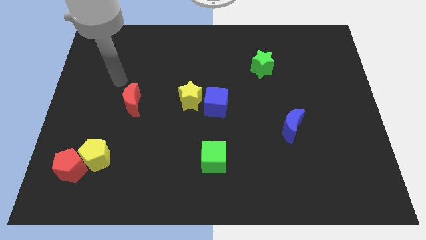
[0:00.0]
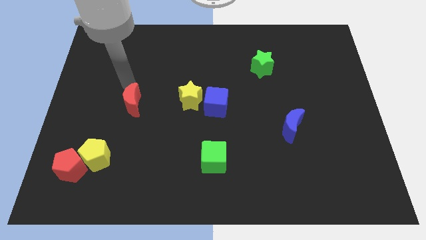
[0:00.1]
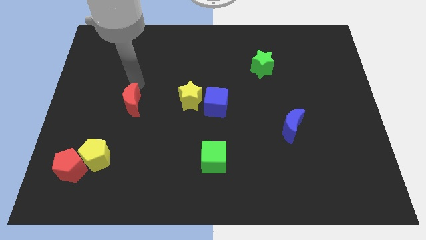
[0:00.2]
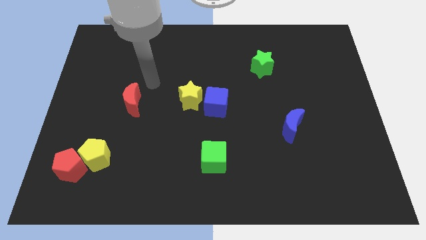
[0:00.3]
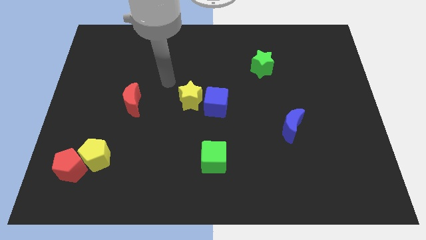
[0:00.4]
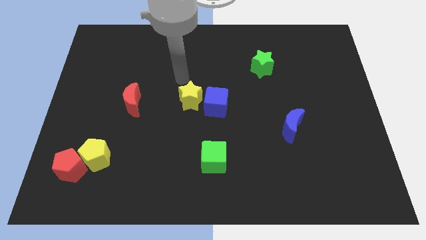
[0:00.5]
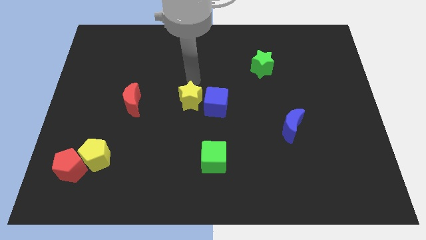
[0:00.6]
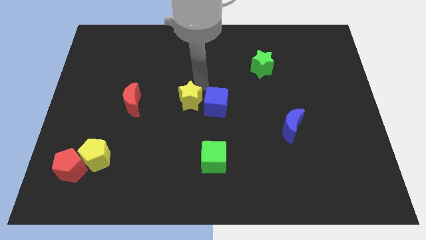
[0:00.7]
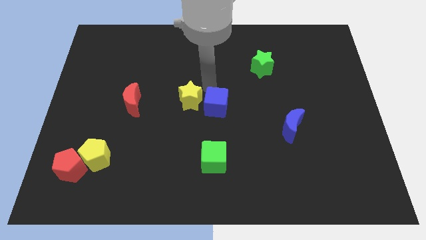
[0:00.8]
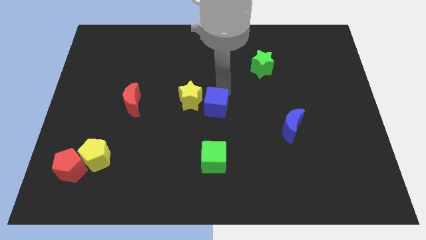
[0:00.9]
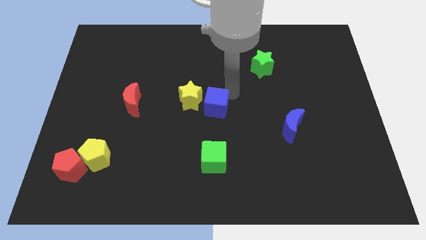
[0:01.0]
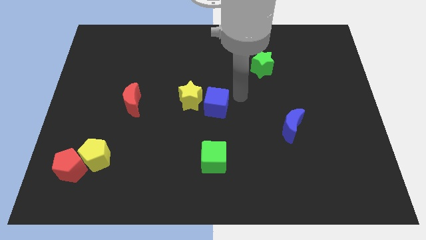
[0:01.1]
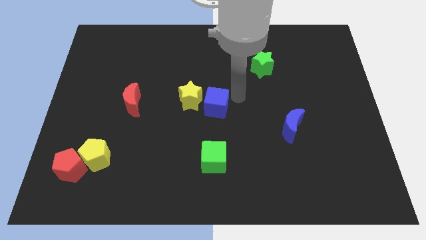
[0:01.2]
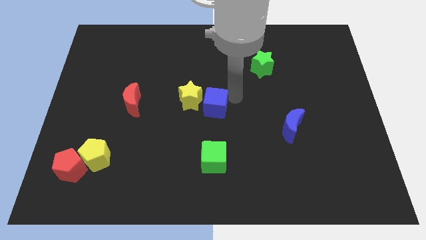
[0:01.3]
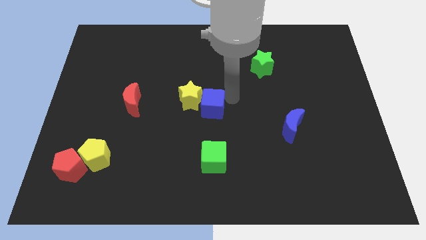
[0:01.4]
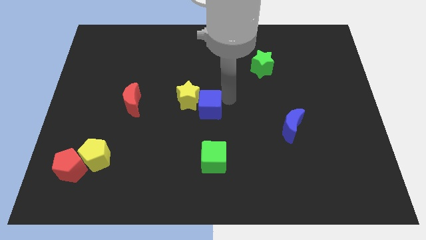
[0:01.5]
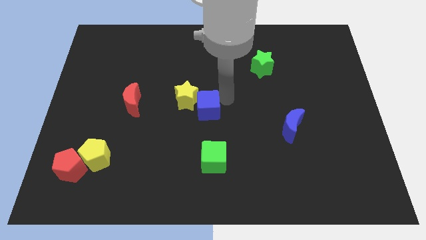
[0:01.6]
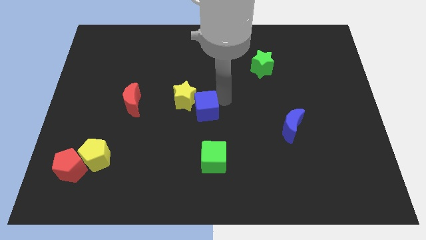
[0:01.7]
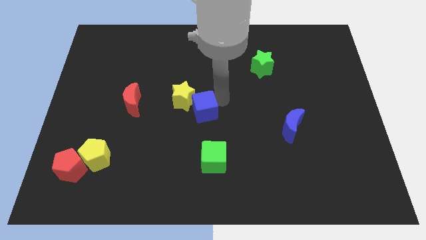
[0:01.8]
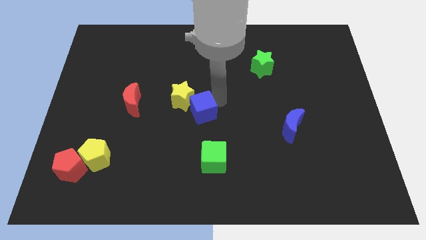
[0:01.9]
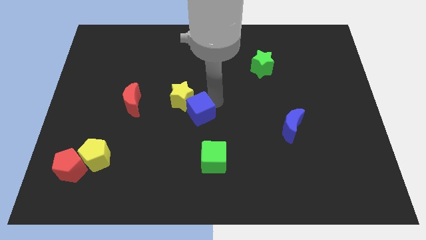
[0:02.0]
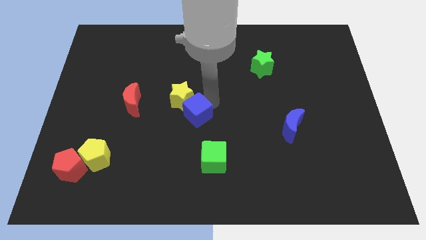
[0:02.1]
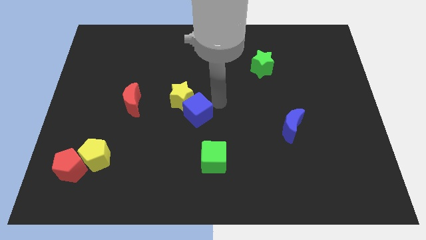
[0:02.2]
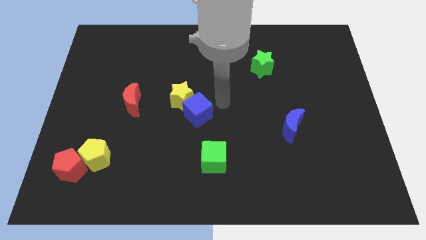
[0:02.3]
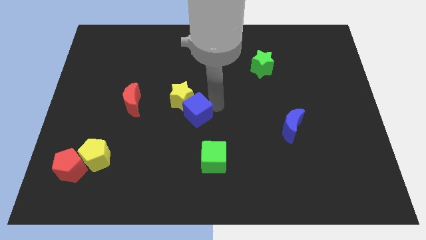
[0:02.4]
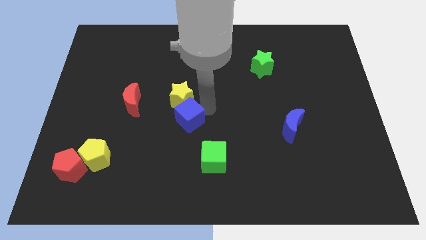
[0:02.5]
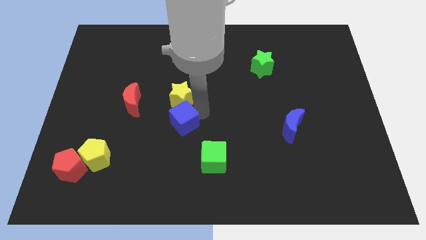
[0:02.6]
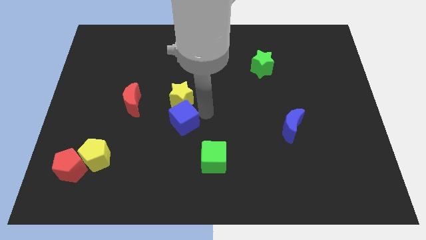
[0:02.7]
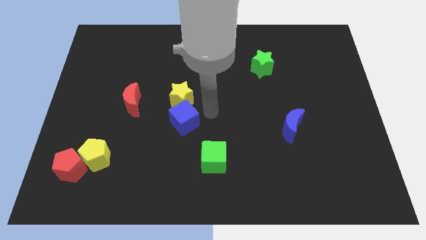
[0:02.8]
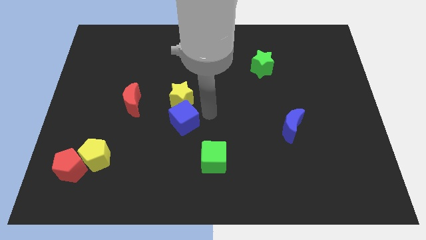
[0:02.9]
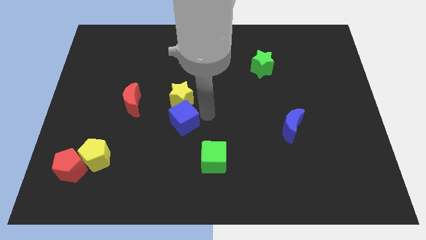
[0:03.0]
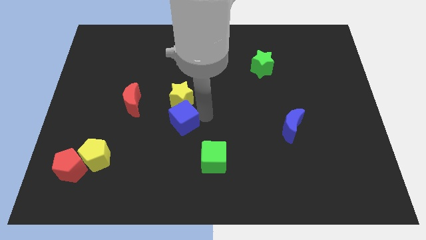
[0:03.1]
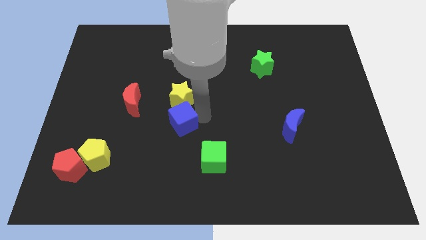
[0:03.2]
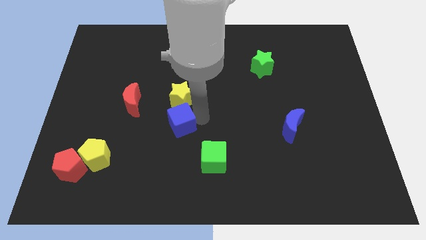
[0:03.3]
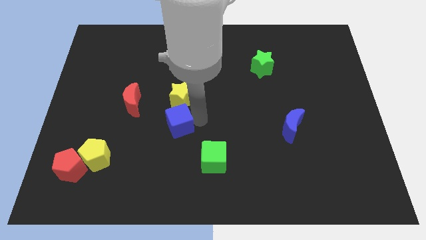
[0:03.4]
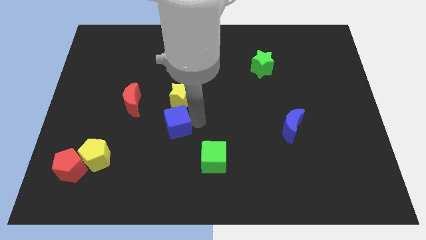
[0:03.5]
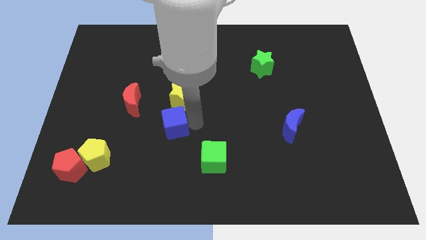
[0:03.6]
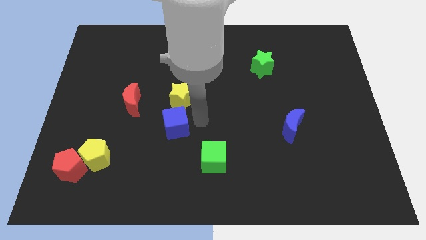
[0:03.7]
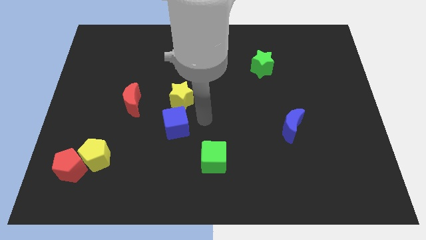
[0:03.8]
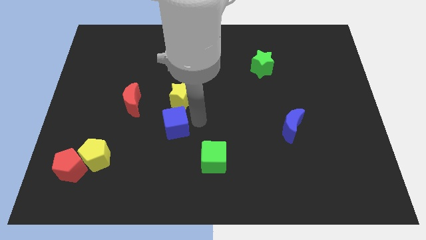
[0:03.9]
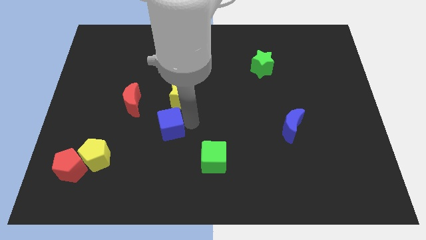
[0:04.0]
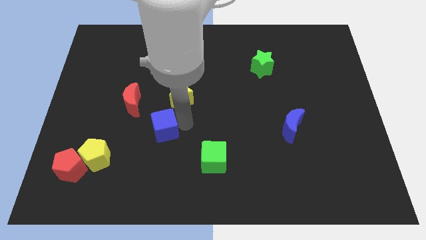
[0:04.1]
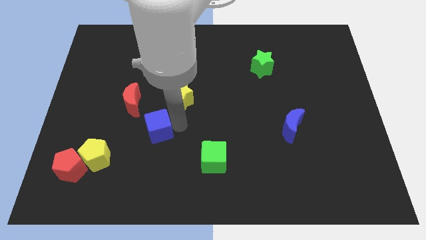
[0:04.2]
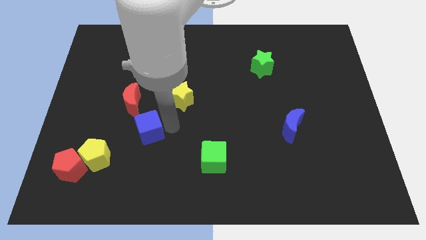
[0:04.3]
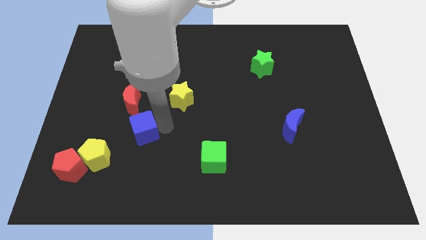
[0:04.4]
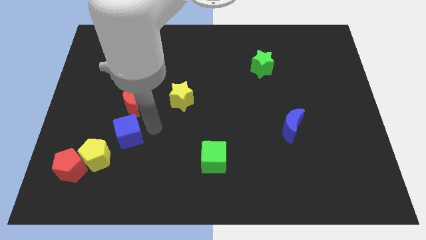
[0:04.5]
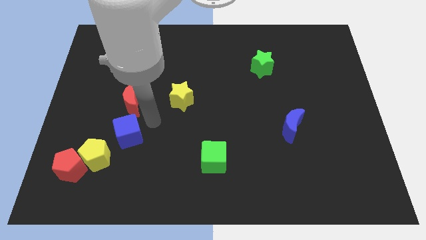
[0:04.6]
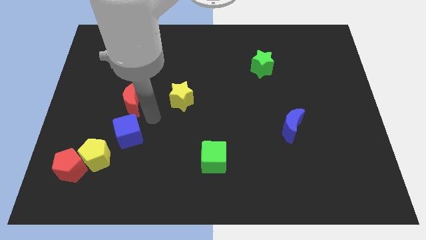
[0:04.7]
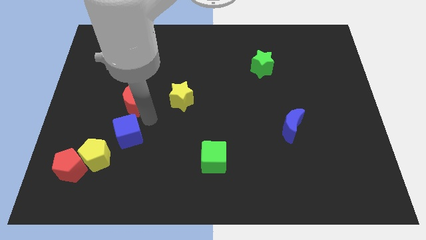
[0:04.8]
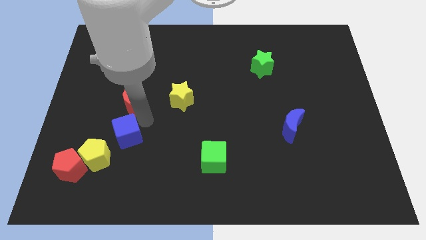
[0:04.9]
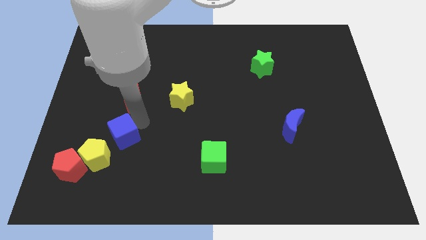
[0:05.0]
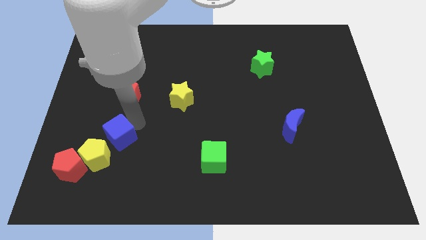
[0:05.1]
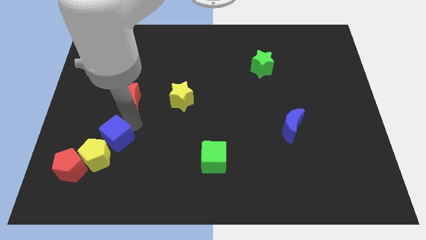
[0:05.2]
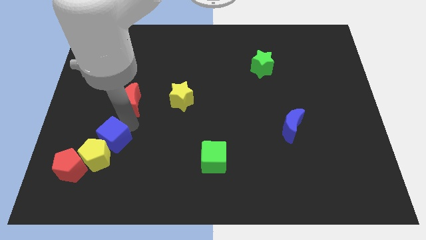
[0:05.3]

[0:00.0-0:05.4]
slide the blue cube next to the yellow pentagon

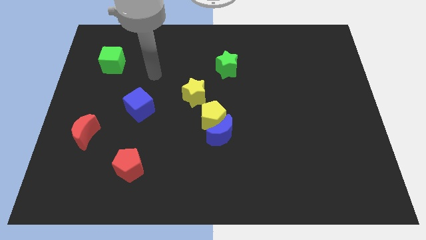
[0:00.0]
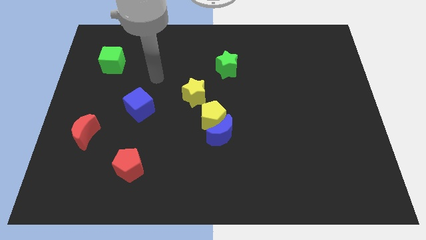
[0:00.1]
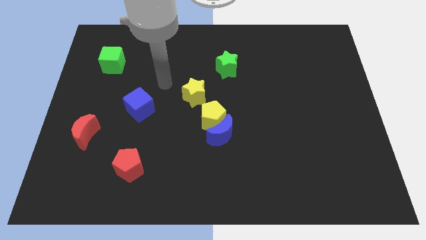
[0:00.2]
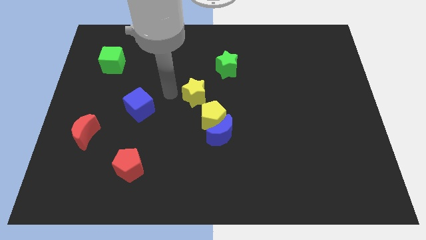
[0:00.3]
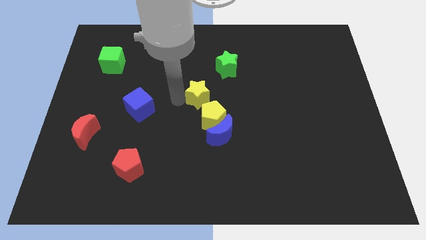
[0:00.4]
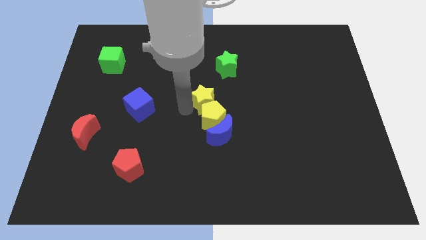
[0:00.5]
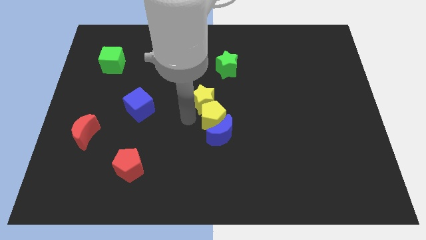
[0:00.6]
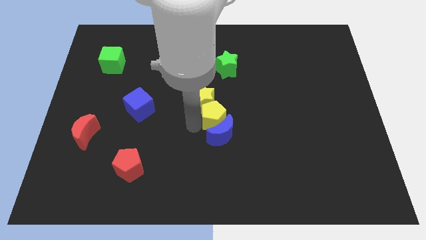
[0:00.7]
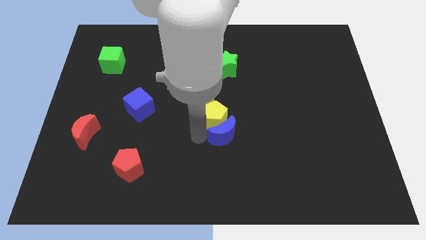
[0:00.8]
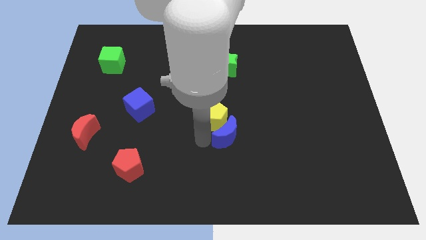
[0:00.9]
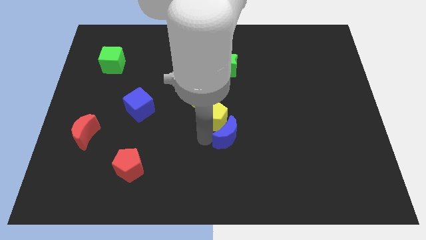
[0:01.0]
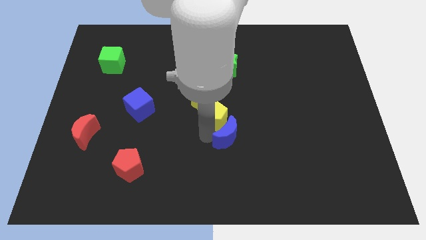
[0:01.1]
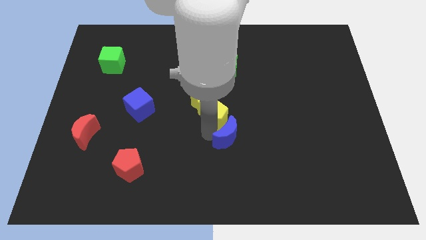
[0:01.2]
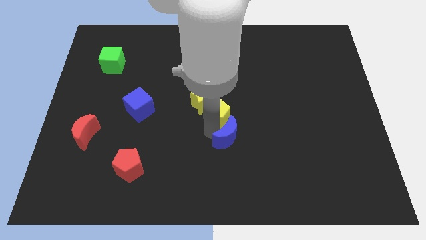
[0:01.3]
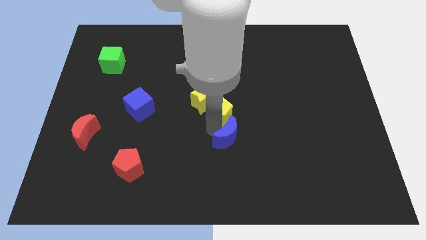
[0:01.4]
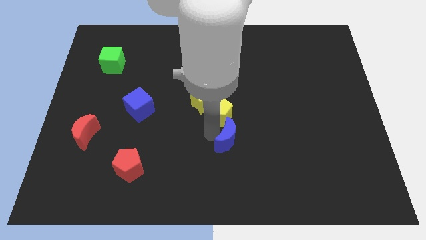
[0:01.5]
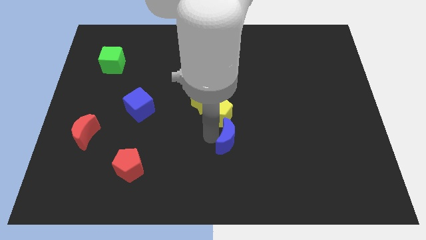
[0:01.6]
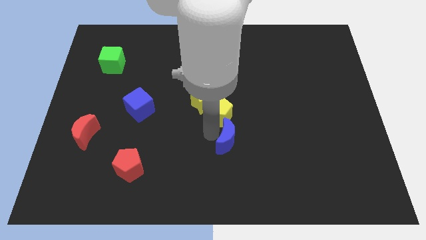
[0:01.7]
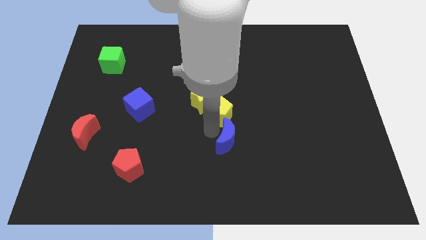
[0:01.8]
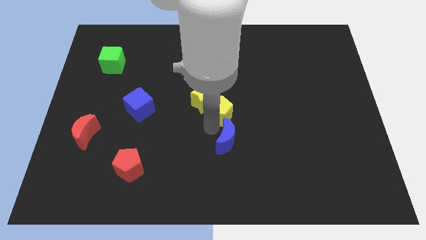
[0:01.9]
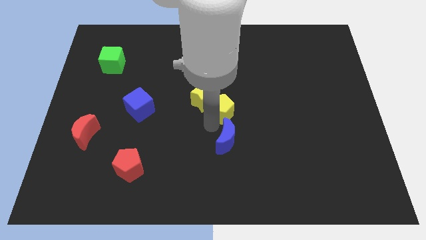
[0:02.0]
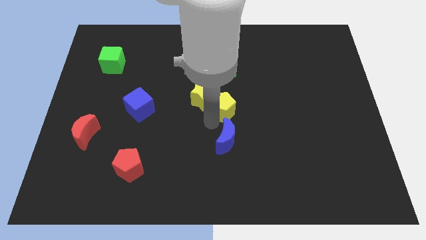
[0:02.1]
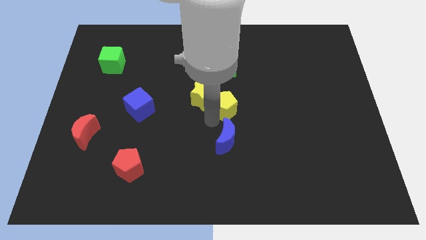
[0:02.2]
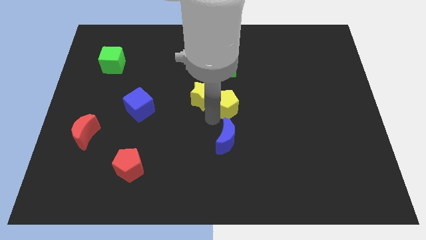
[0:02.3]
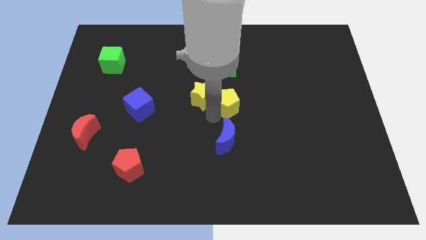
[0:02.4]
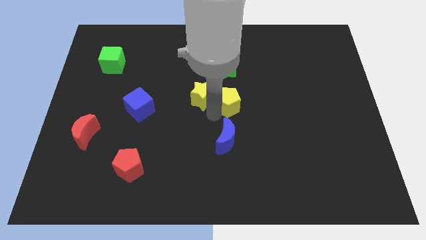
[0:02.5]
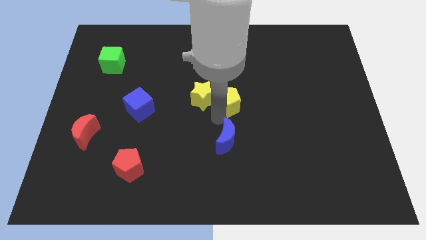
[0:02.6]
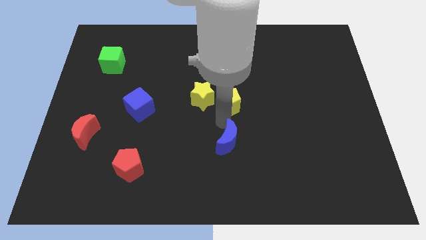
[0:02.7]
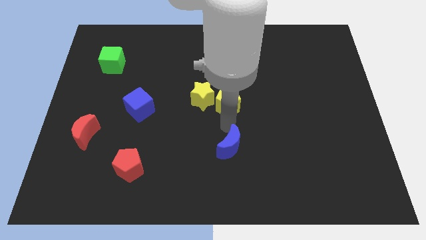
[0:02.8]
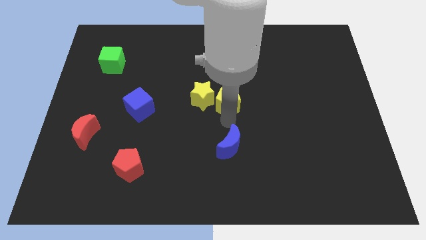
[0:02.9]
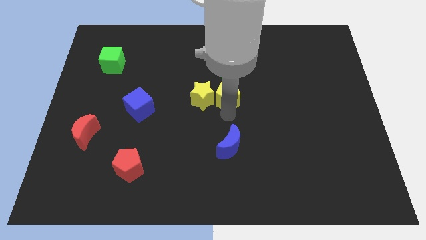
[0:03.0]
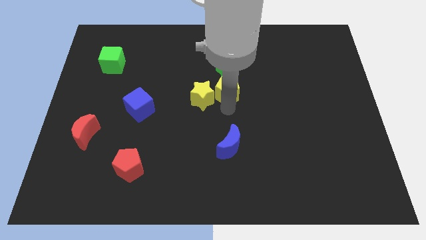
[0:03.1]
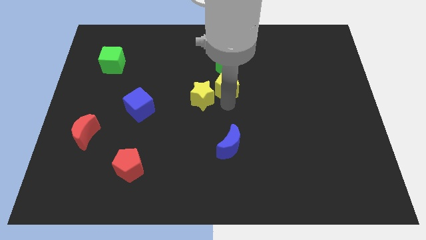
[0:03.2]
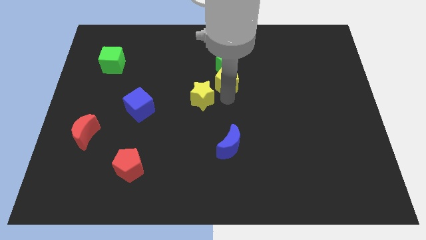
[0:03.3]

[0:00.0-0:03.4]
slide the yellow pentagon next to the green star
